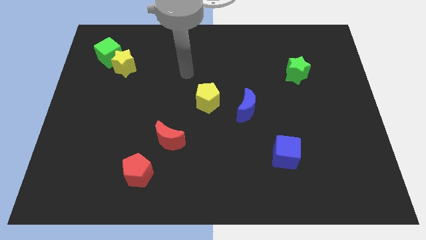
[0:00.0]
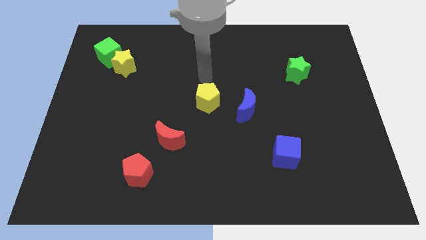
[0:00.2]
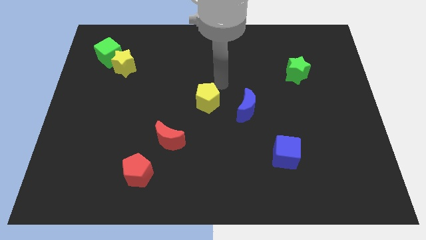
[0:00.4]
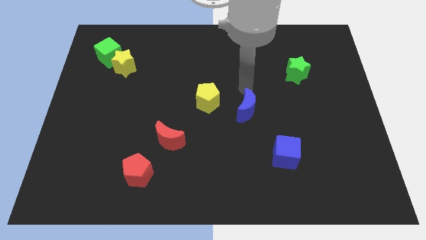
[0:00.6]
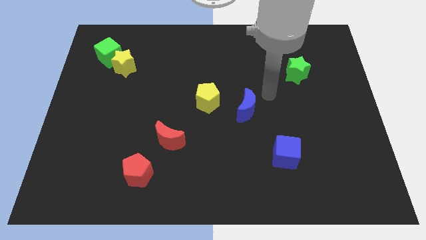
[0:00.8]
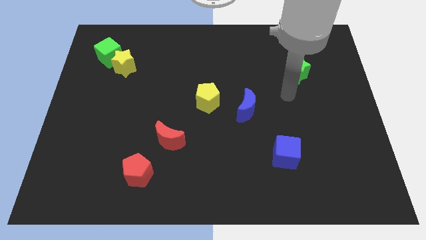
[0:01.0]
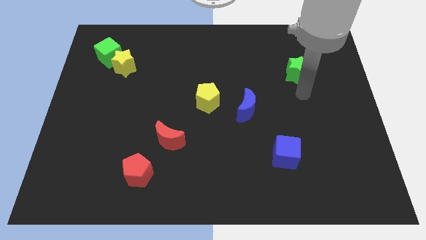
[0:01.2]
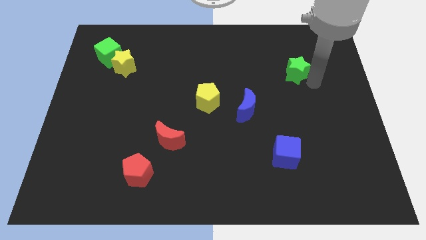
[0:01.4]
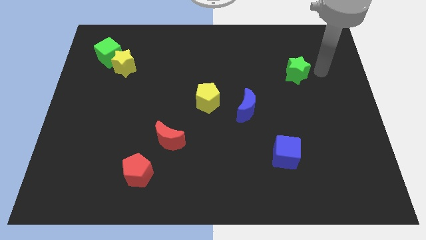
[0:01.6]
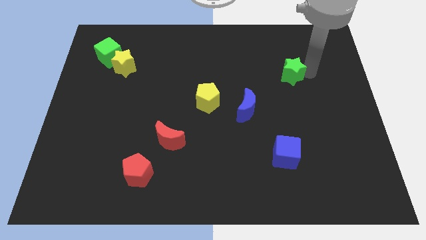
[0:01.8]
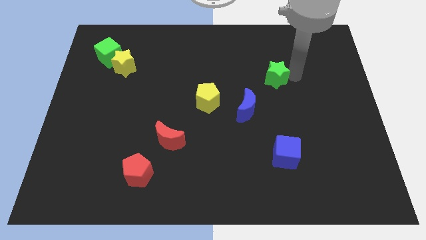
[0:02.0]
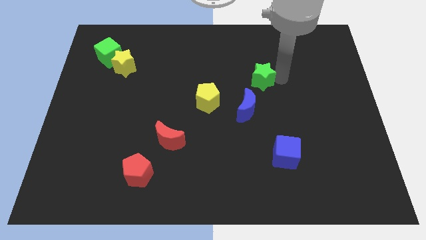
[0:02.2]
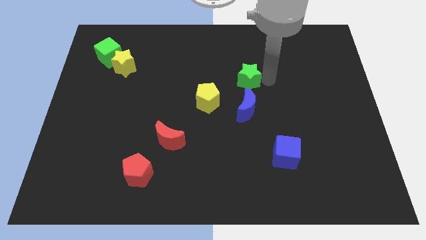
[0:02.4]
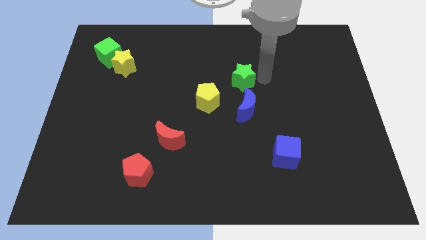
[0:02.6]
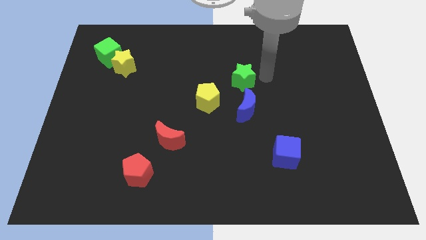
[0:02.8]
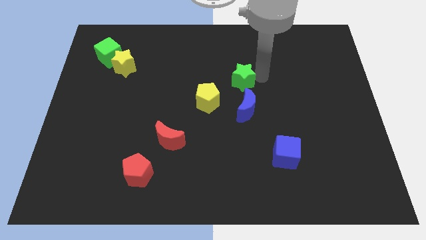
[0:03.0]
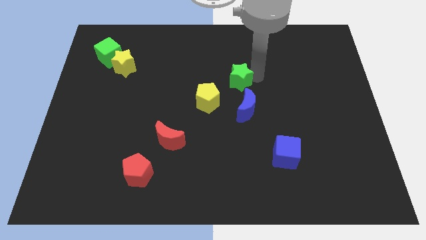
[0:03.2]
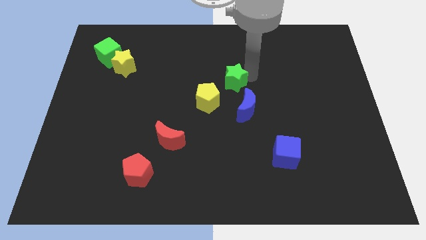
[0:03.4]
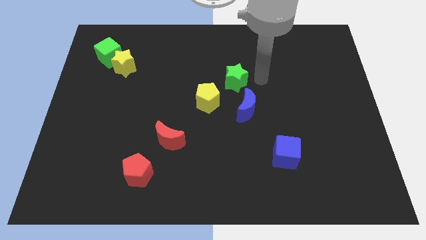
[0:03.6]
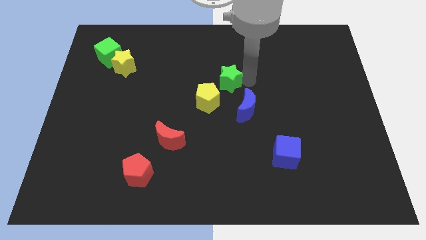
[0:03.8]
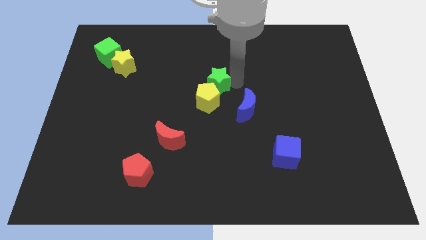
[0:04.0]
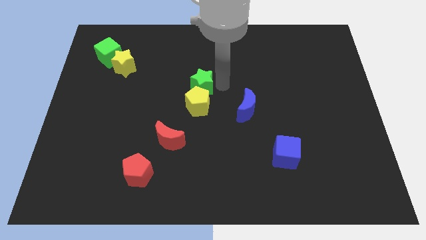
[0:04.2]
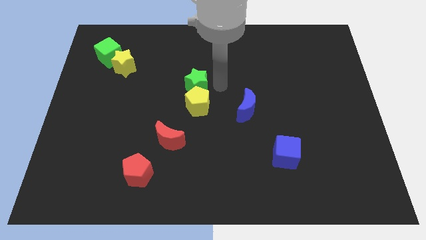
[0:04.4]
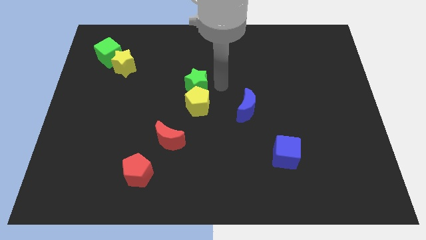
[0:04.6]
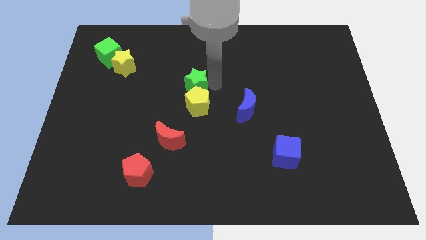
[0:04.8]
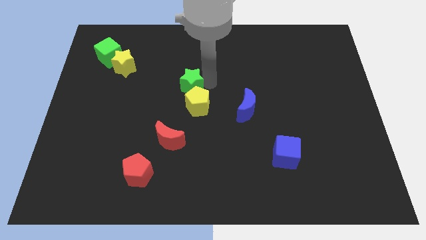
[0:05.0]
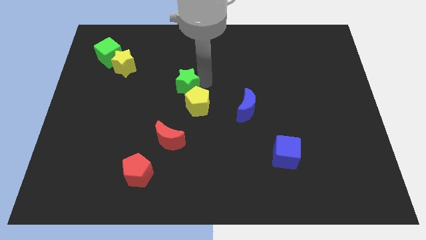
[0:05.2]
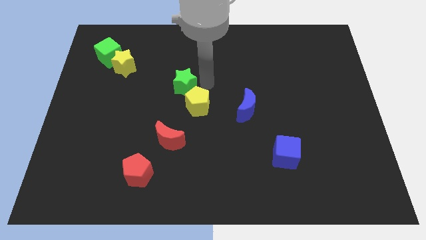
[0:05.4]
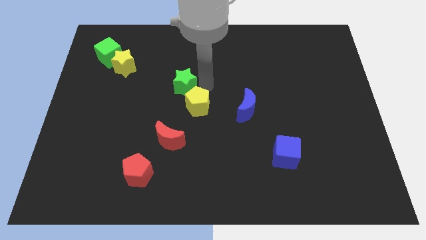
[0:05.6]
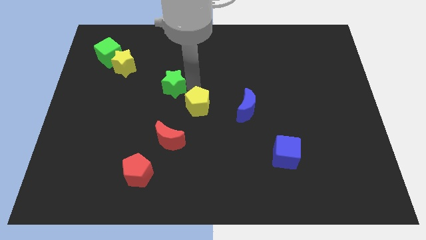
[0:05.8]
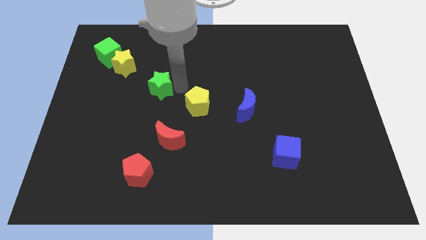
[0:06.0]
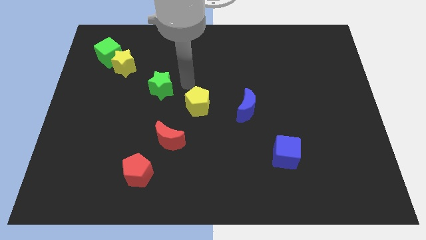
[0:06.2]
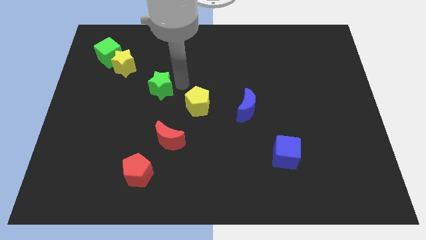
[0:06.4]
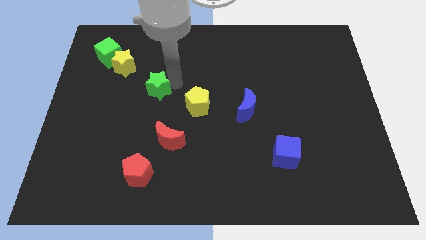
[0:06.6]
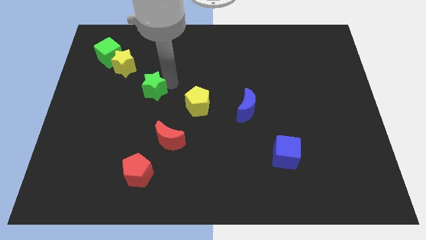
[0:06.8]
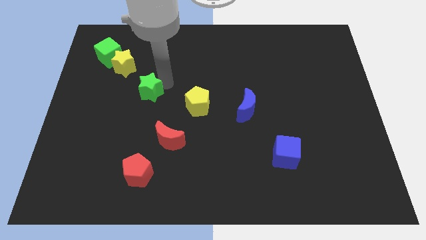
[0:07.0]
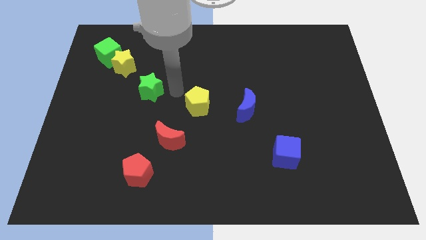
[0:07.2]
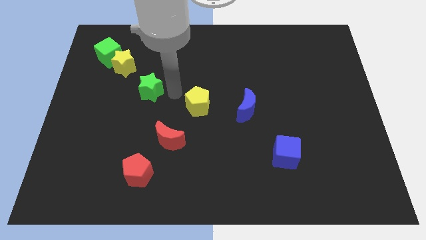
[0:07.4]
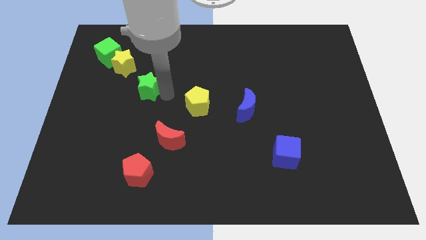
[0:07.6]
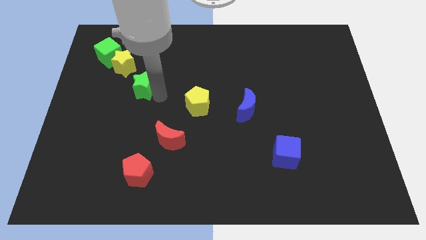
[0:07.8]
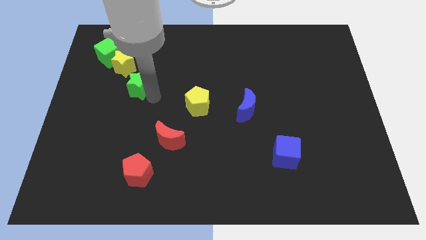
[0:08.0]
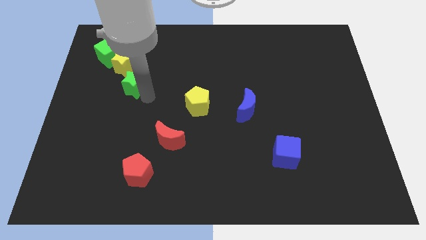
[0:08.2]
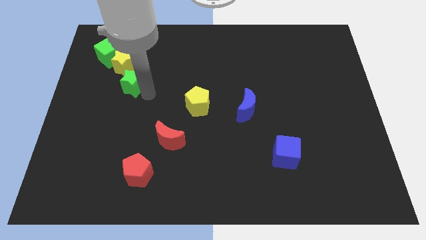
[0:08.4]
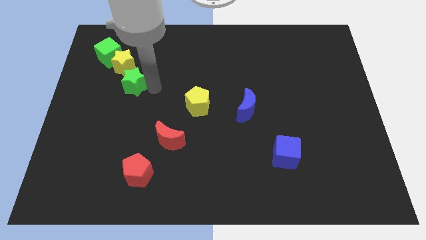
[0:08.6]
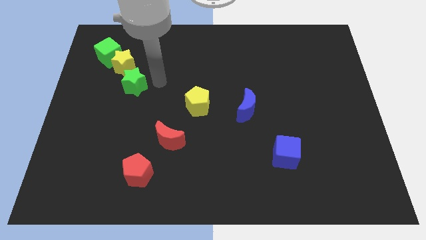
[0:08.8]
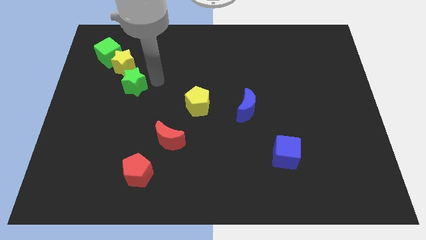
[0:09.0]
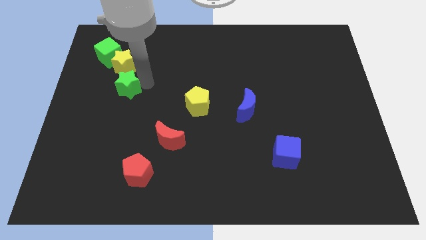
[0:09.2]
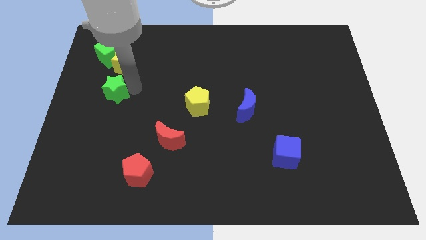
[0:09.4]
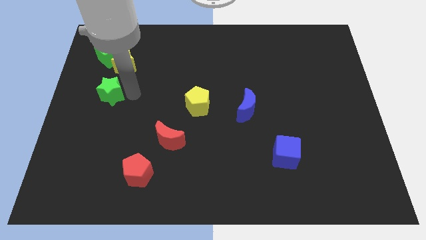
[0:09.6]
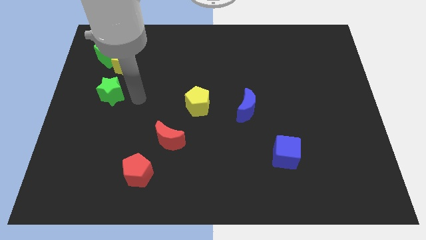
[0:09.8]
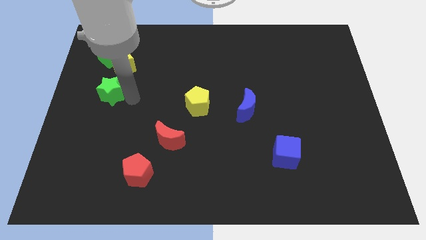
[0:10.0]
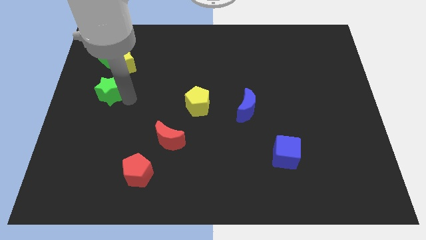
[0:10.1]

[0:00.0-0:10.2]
push the green star to the center left
